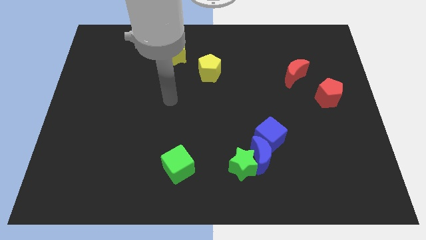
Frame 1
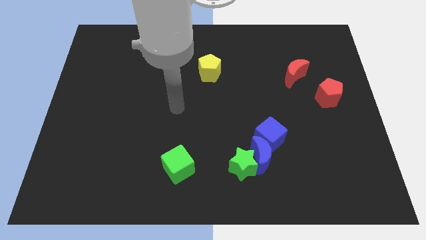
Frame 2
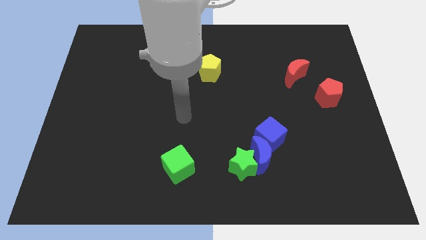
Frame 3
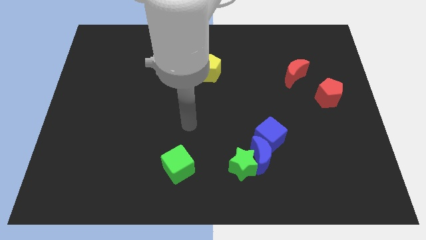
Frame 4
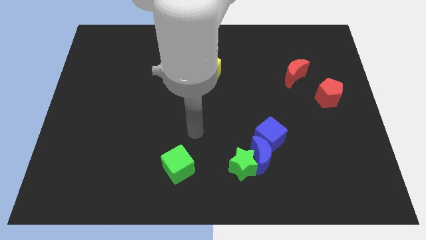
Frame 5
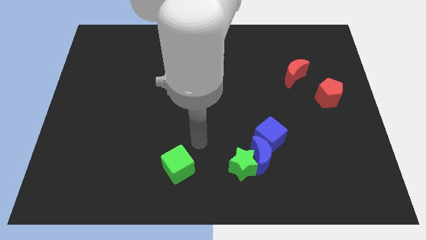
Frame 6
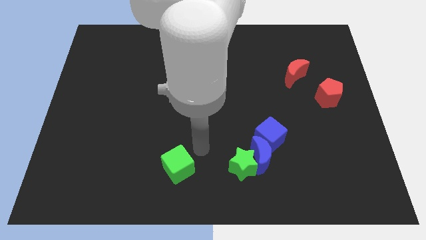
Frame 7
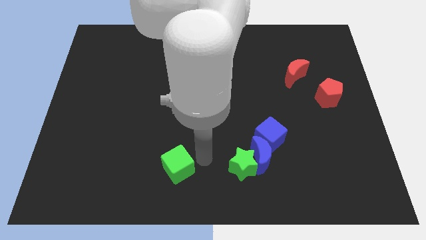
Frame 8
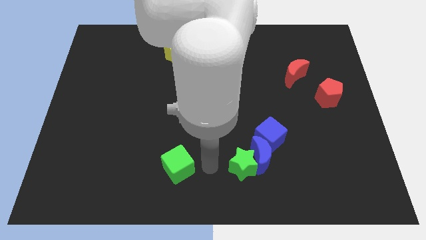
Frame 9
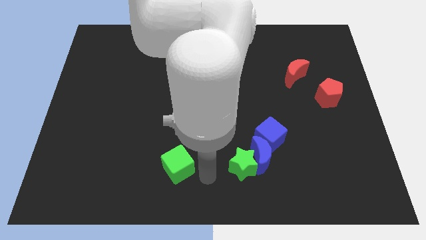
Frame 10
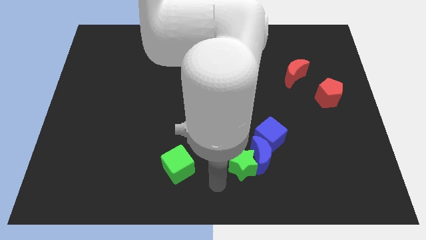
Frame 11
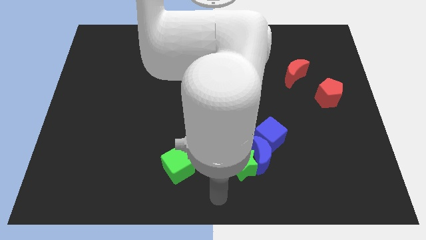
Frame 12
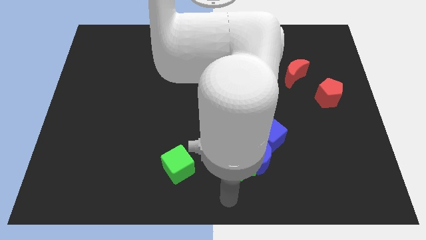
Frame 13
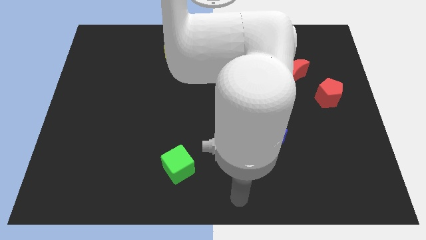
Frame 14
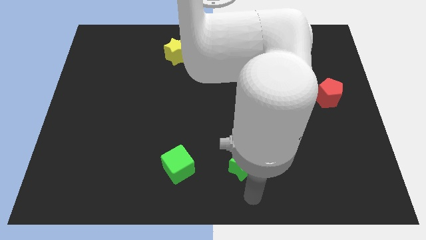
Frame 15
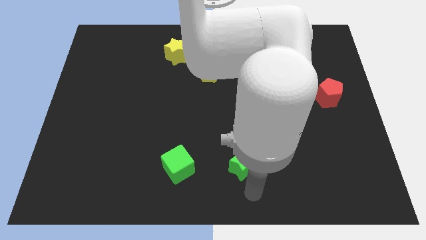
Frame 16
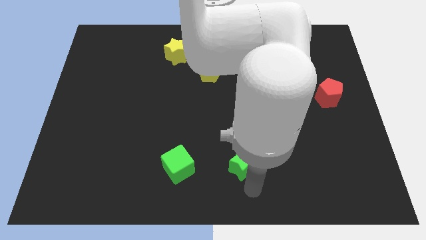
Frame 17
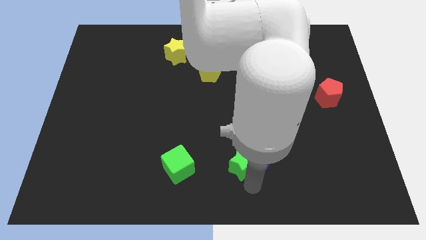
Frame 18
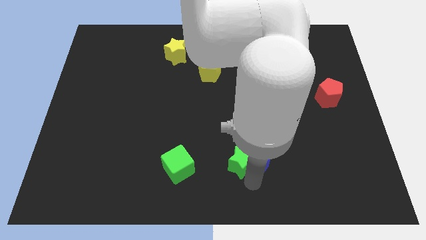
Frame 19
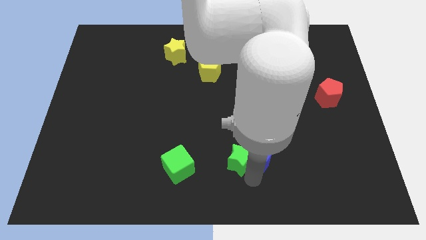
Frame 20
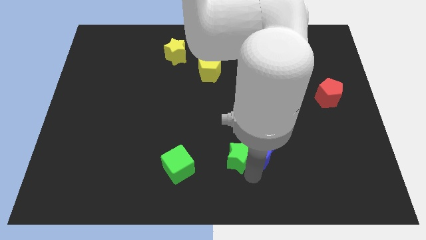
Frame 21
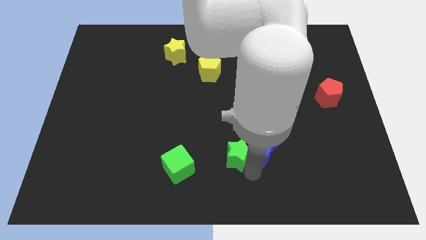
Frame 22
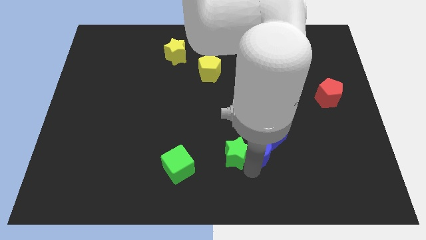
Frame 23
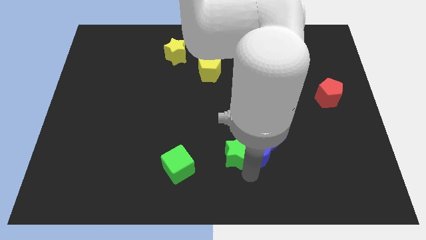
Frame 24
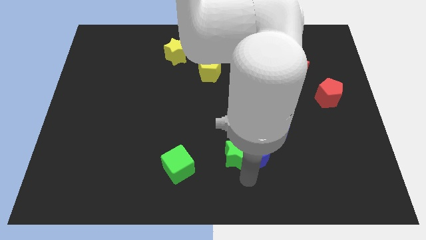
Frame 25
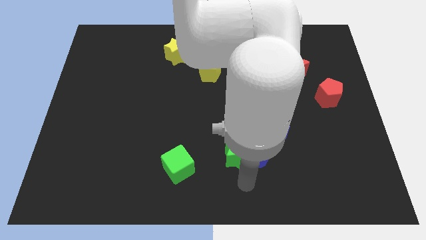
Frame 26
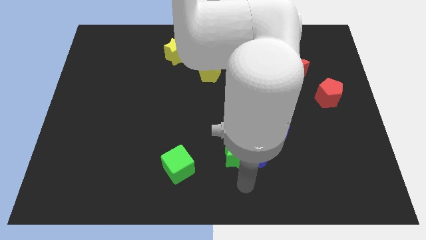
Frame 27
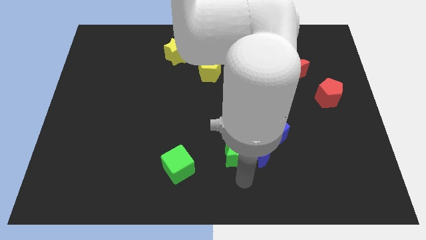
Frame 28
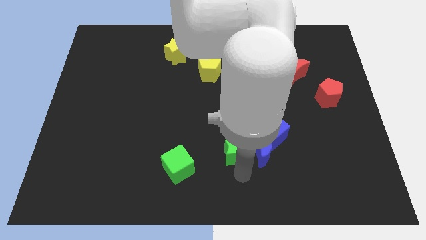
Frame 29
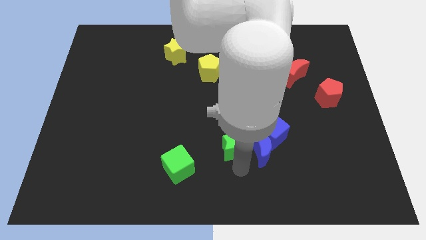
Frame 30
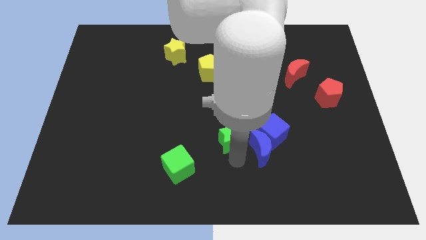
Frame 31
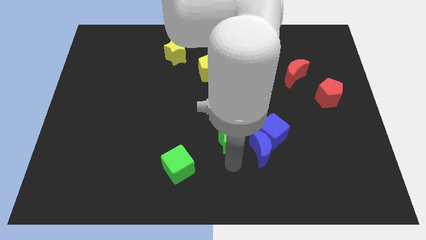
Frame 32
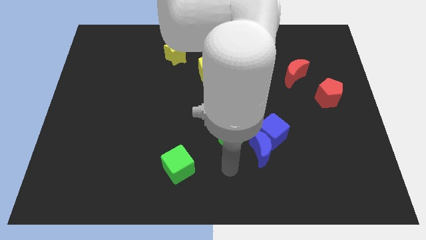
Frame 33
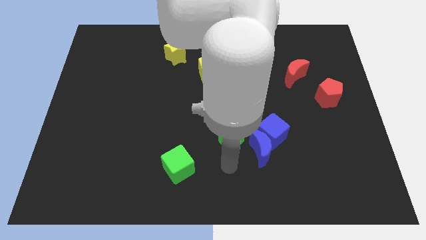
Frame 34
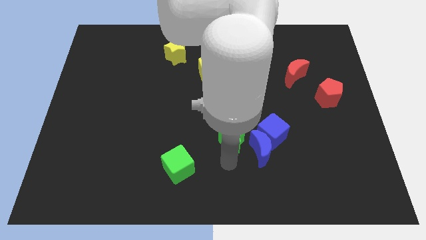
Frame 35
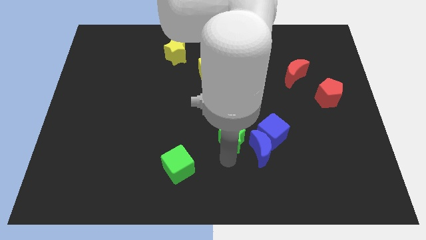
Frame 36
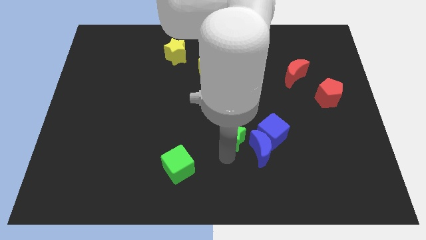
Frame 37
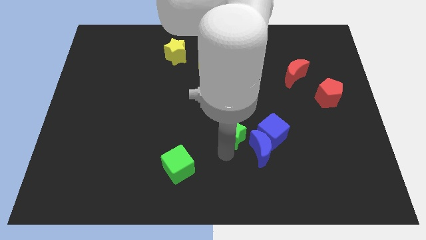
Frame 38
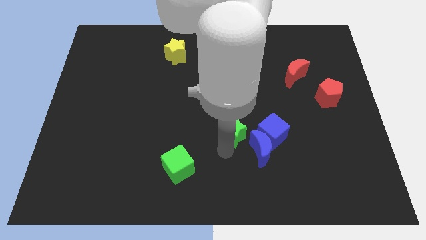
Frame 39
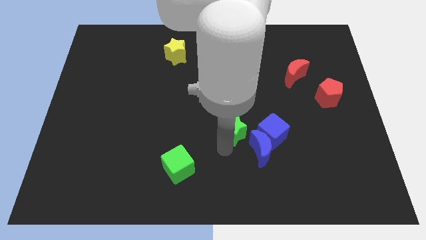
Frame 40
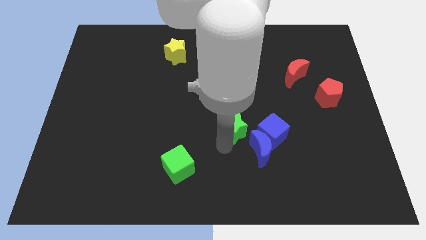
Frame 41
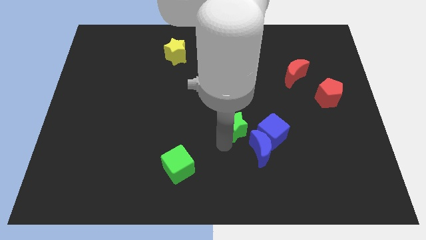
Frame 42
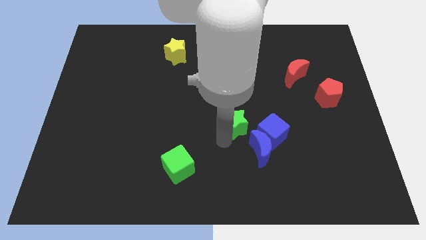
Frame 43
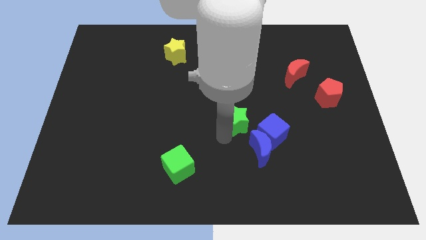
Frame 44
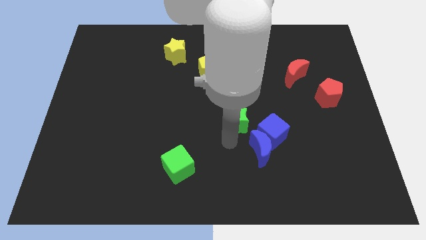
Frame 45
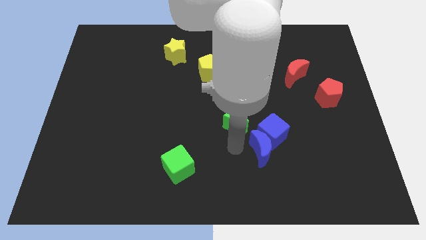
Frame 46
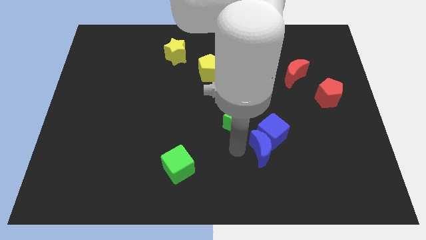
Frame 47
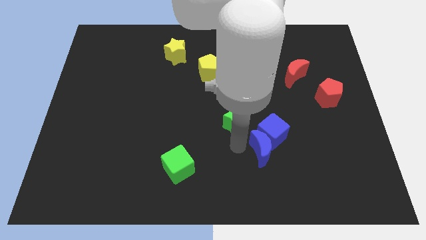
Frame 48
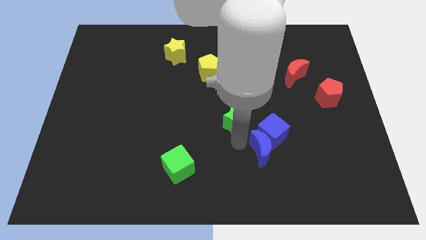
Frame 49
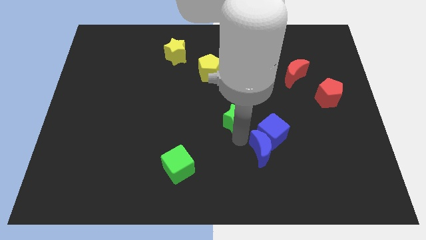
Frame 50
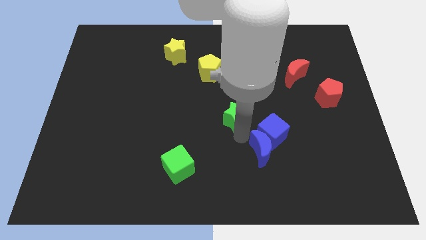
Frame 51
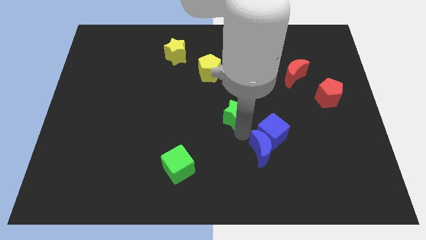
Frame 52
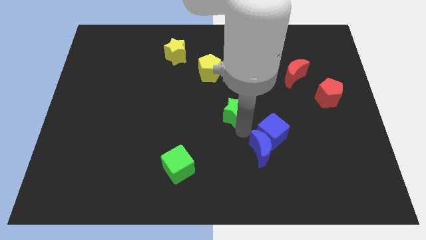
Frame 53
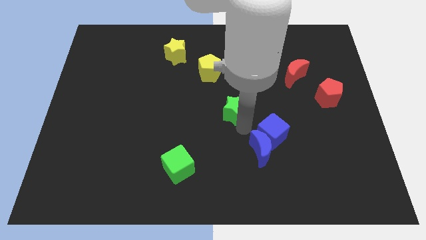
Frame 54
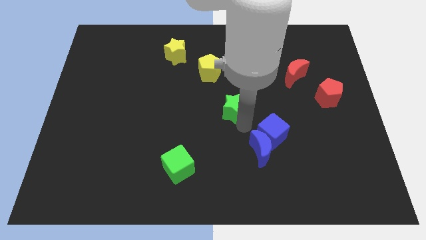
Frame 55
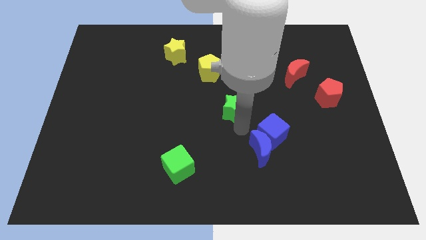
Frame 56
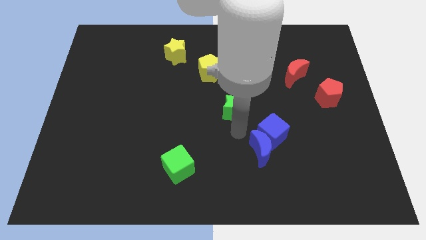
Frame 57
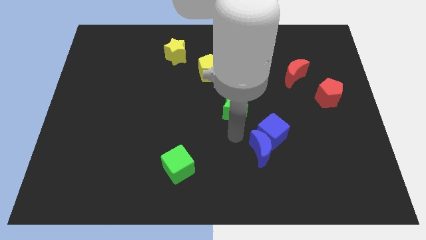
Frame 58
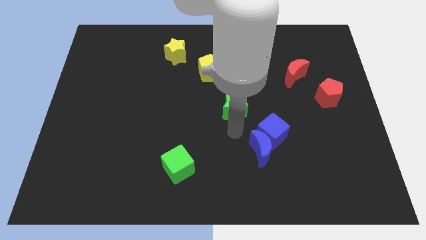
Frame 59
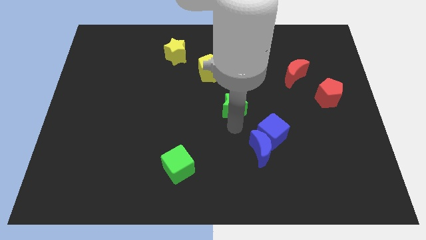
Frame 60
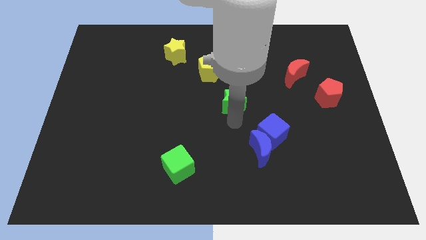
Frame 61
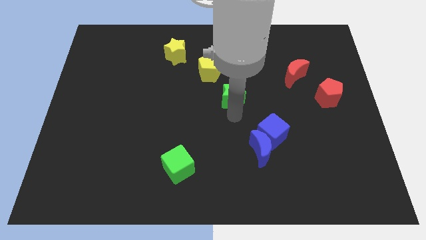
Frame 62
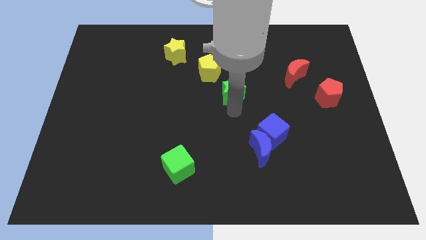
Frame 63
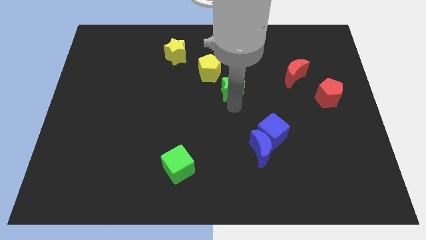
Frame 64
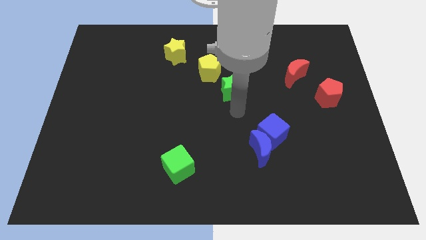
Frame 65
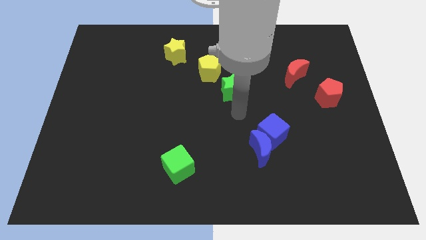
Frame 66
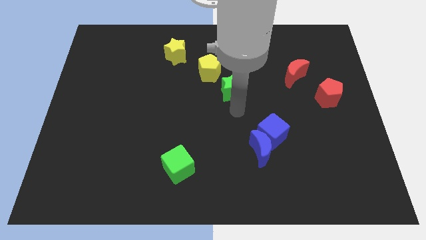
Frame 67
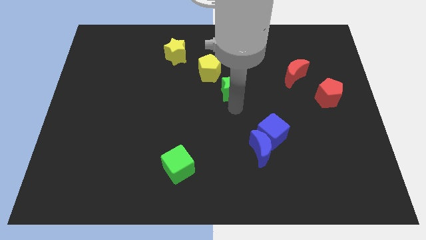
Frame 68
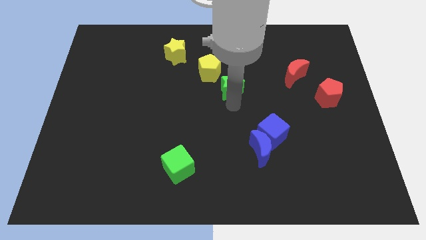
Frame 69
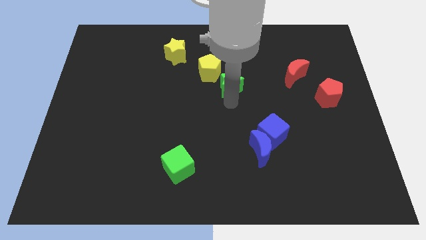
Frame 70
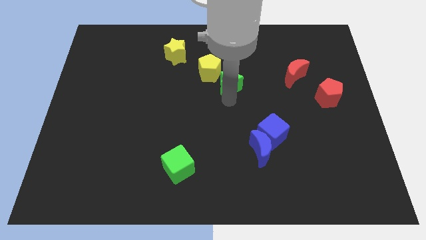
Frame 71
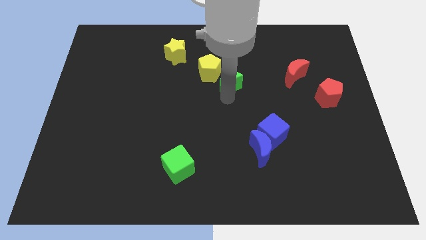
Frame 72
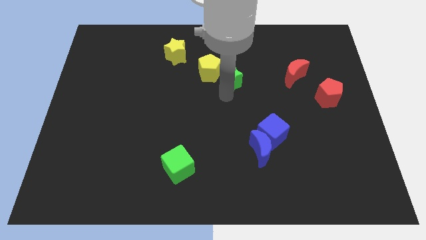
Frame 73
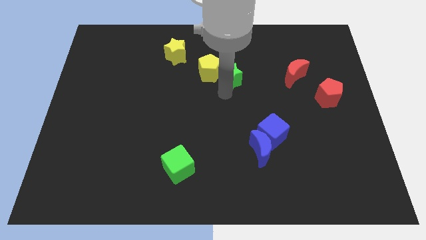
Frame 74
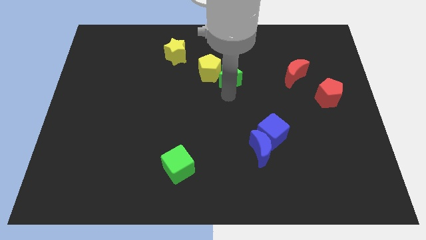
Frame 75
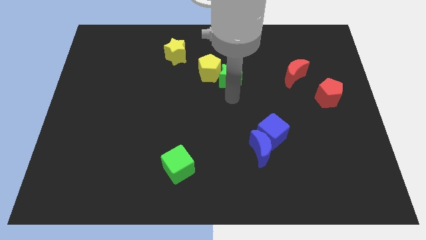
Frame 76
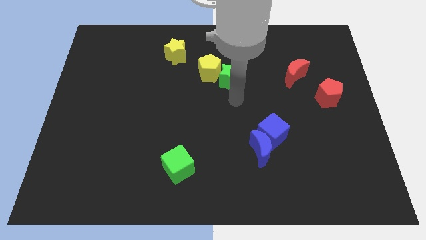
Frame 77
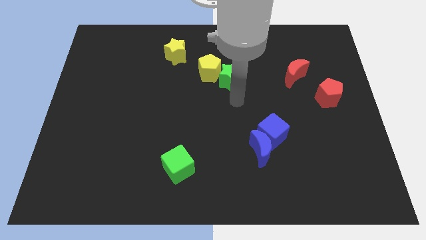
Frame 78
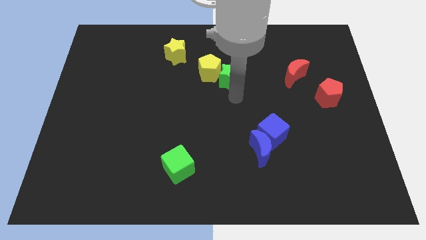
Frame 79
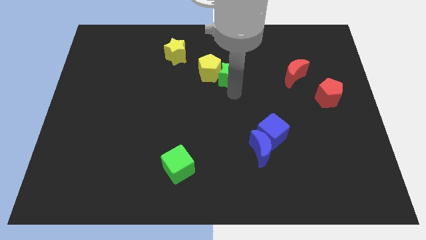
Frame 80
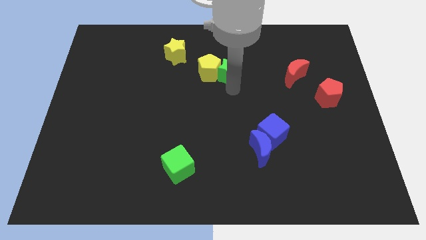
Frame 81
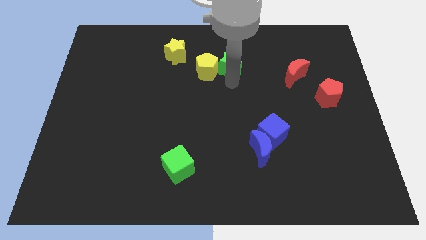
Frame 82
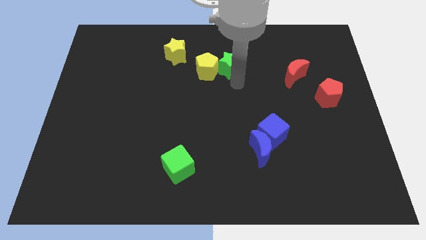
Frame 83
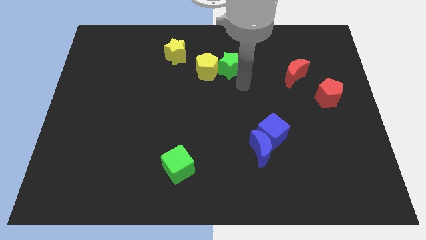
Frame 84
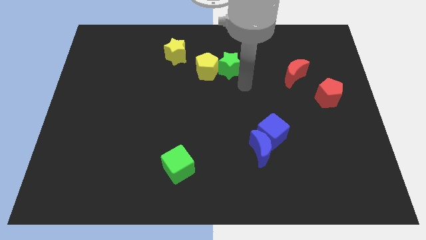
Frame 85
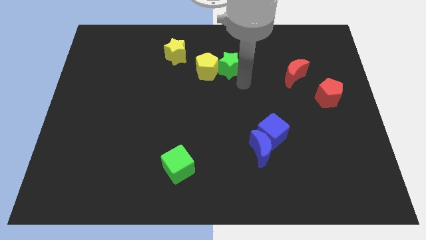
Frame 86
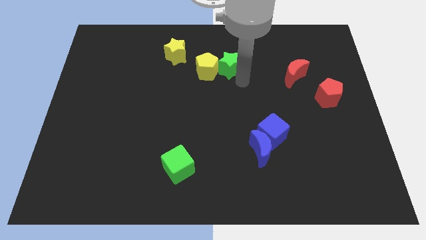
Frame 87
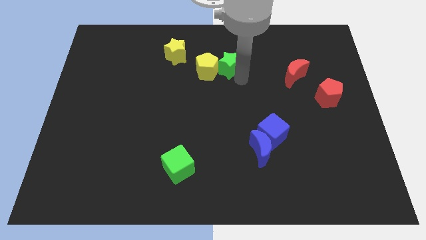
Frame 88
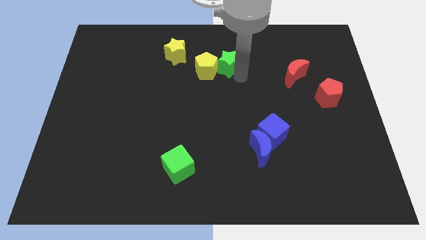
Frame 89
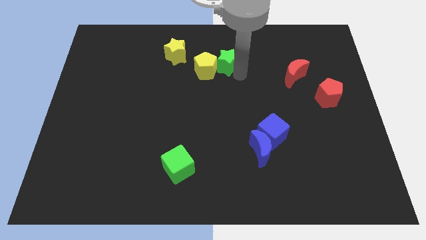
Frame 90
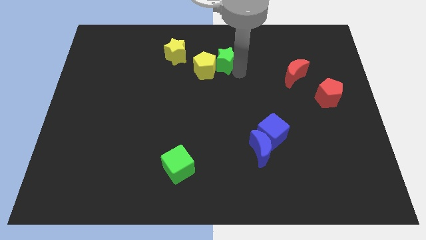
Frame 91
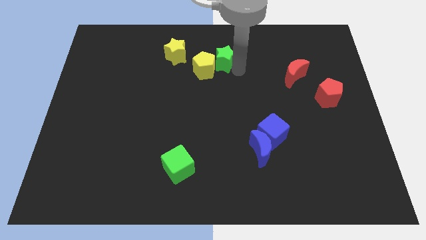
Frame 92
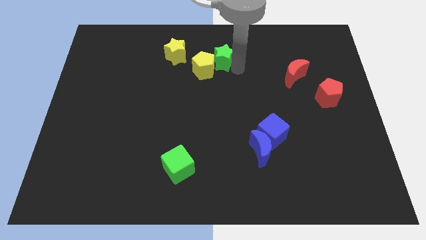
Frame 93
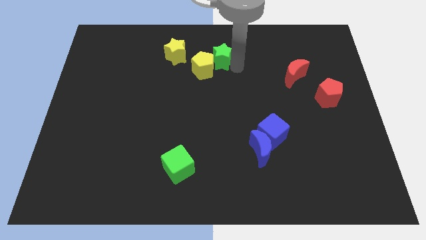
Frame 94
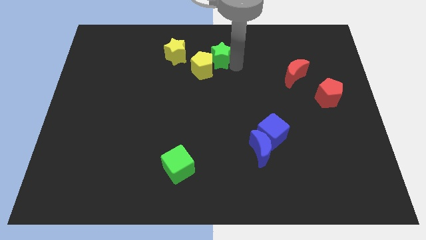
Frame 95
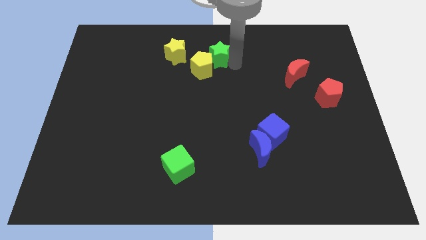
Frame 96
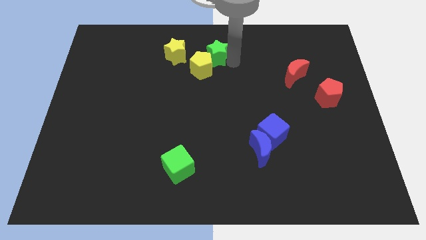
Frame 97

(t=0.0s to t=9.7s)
put the green star to the top
